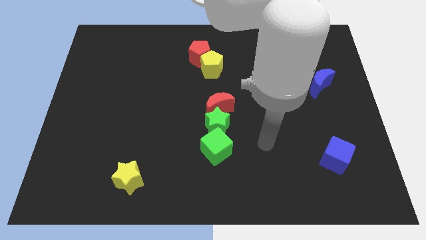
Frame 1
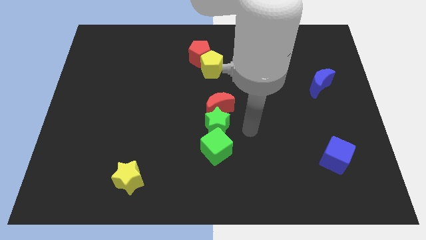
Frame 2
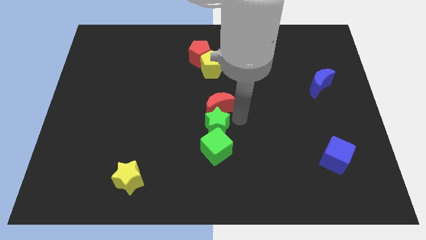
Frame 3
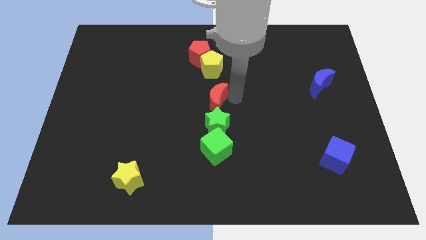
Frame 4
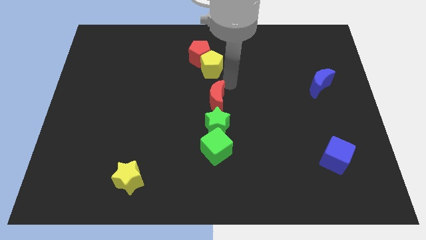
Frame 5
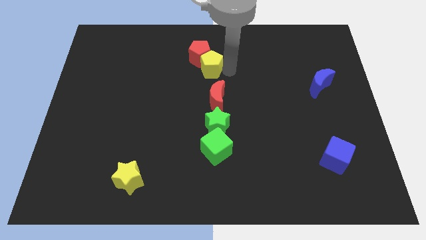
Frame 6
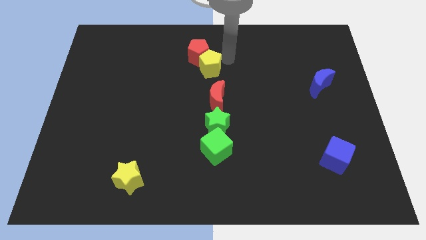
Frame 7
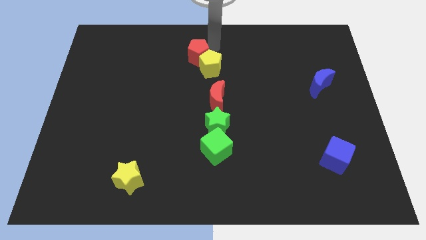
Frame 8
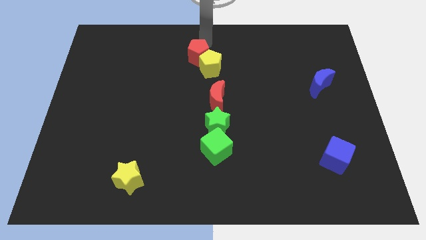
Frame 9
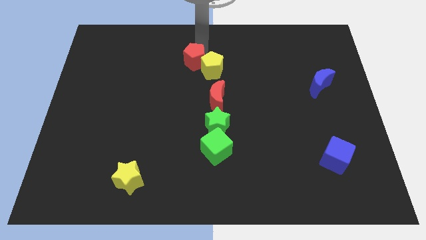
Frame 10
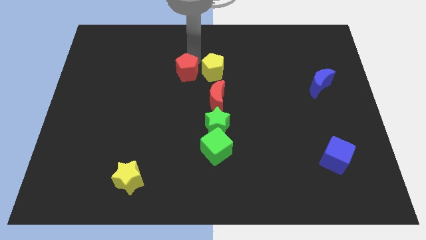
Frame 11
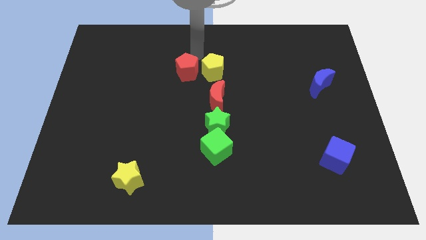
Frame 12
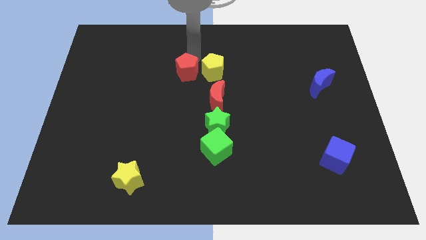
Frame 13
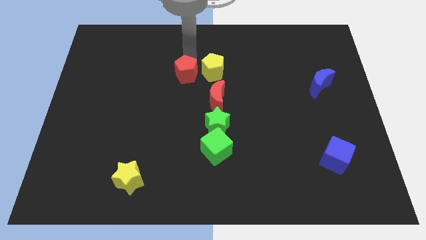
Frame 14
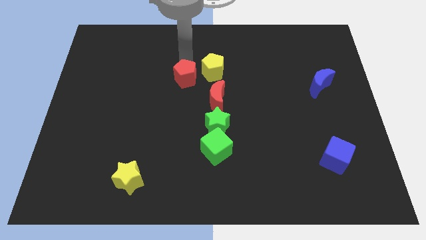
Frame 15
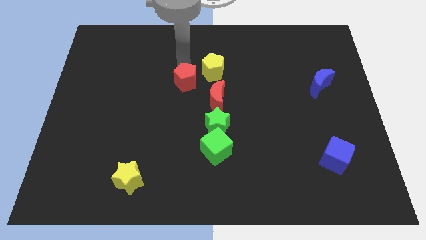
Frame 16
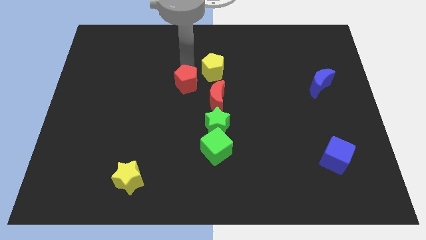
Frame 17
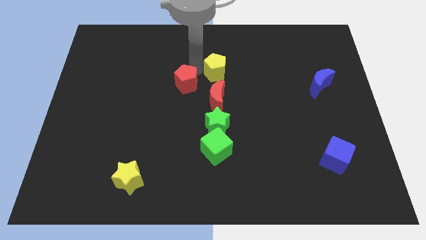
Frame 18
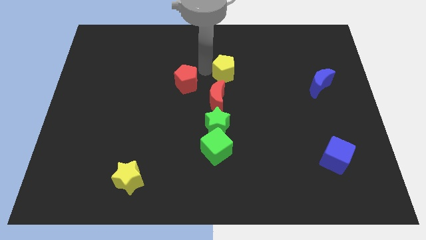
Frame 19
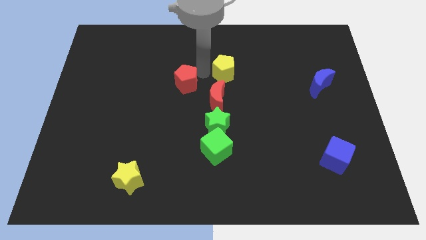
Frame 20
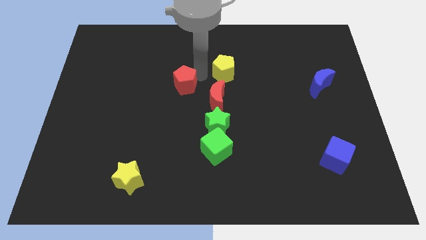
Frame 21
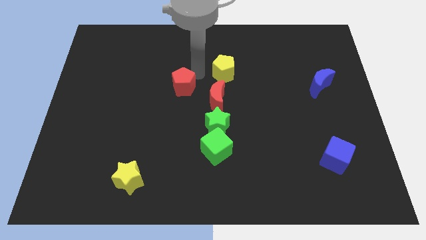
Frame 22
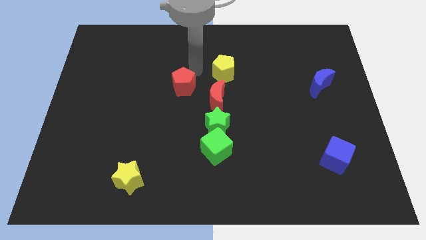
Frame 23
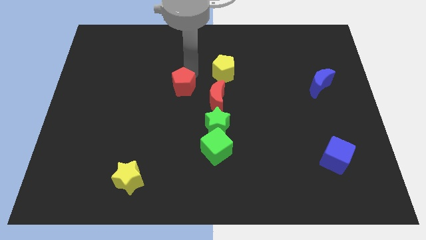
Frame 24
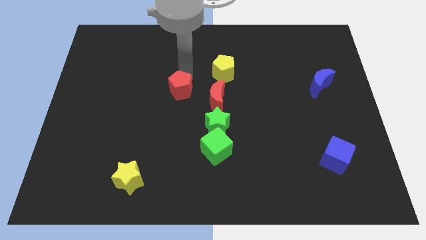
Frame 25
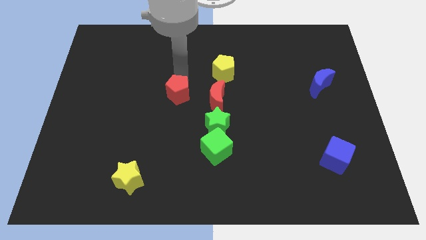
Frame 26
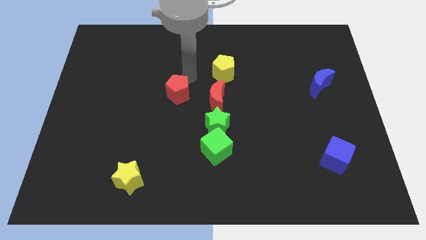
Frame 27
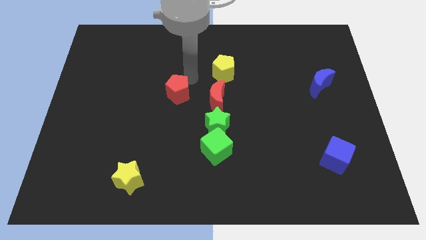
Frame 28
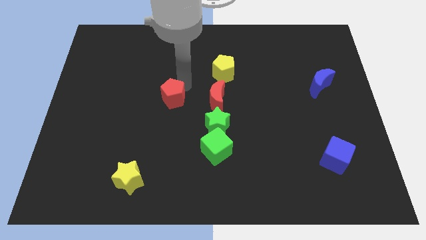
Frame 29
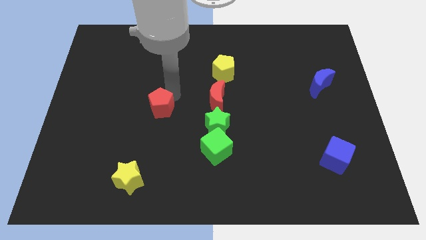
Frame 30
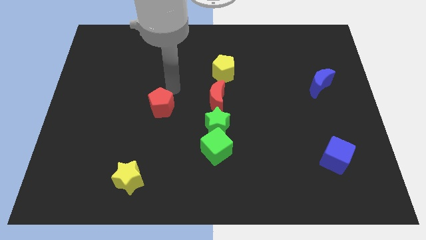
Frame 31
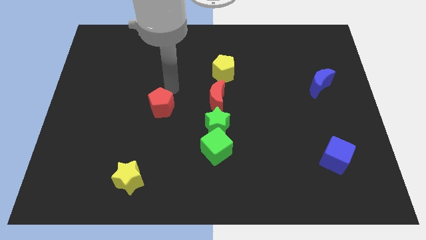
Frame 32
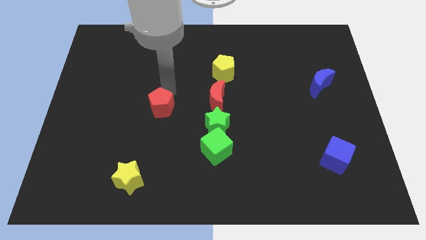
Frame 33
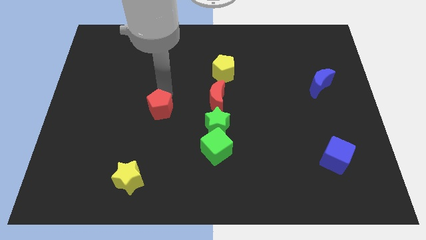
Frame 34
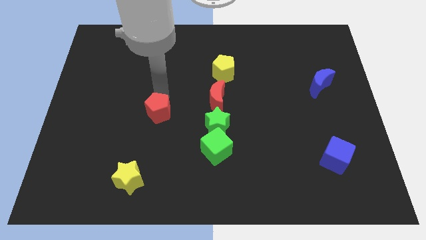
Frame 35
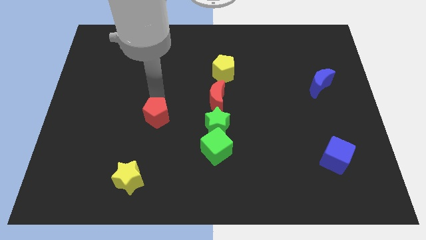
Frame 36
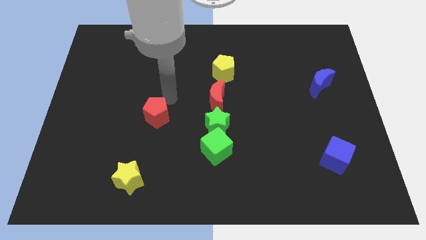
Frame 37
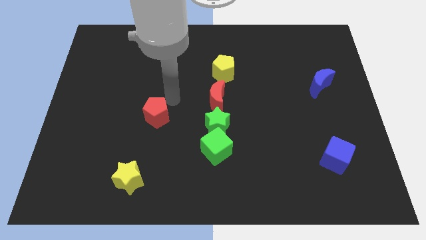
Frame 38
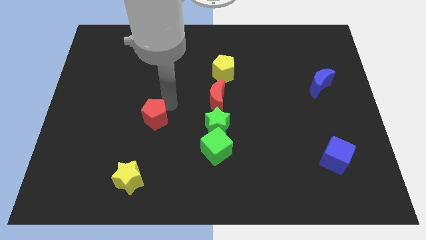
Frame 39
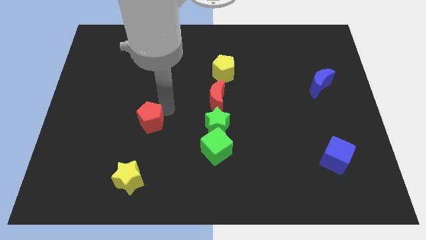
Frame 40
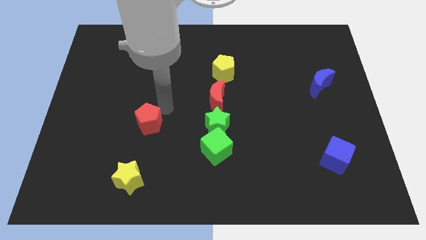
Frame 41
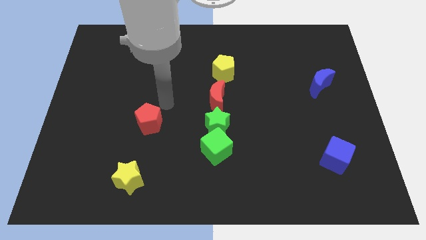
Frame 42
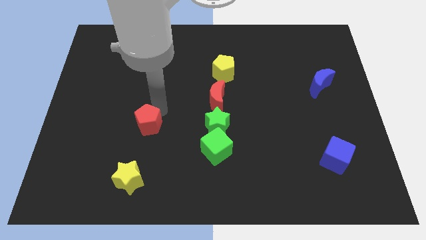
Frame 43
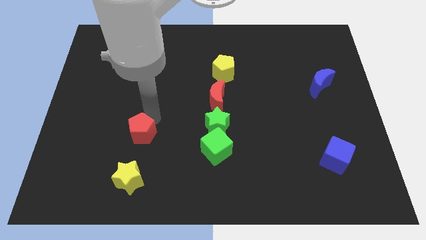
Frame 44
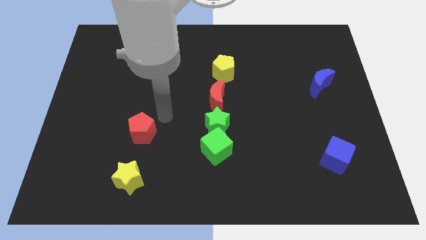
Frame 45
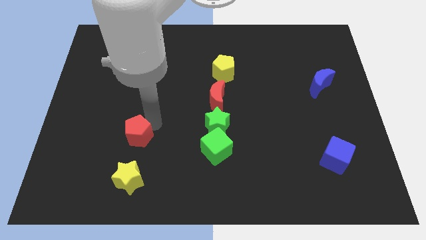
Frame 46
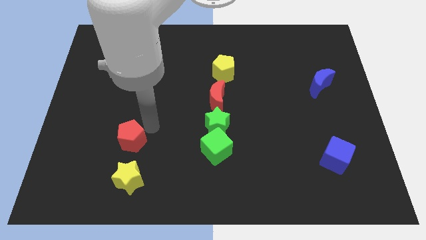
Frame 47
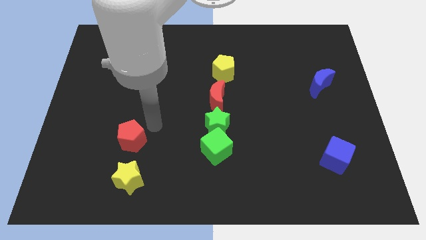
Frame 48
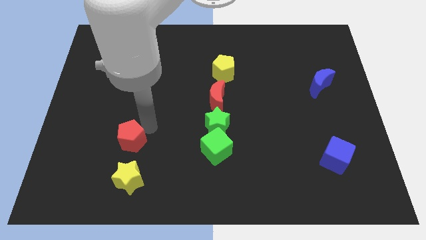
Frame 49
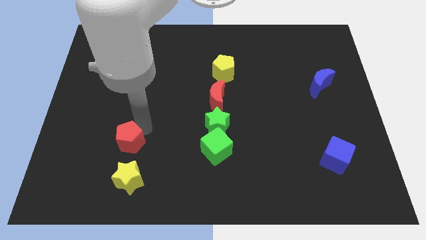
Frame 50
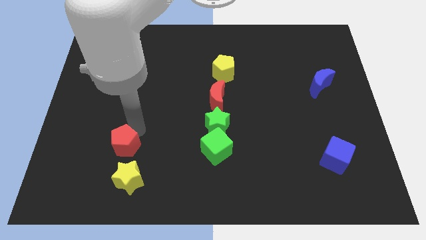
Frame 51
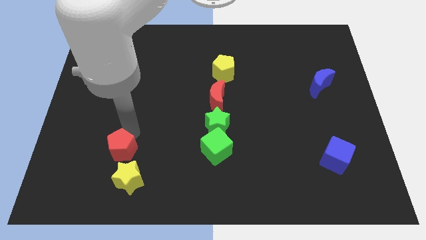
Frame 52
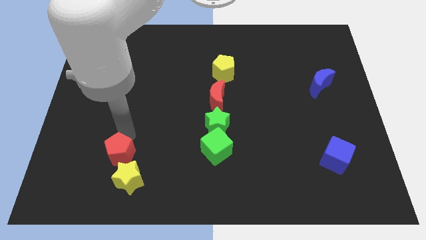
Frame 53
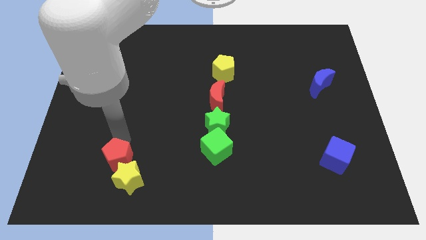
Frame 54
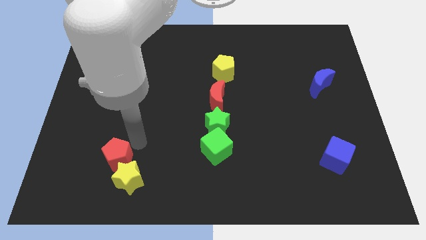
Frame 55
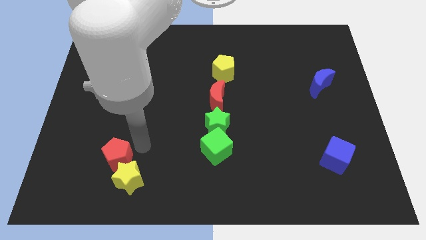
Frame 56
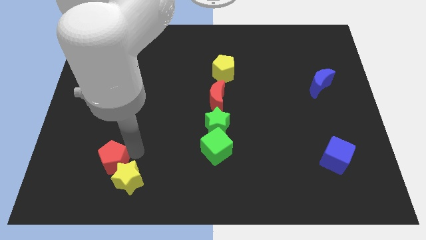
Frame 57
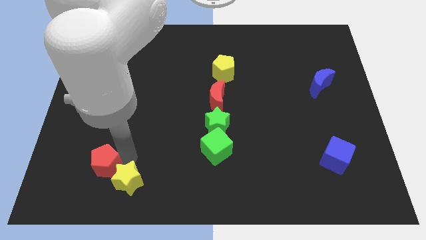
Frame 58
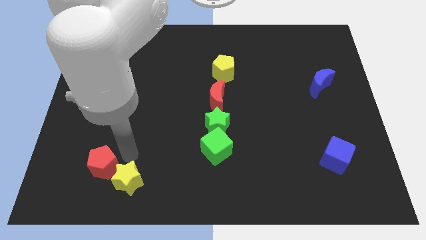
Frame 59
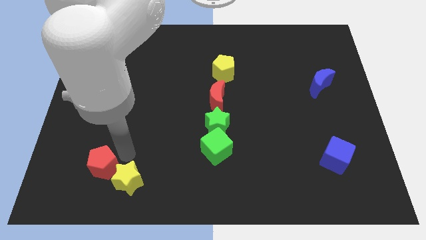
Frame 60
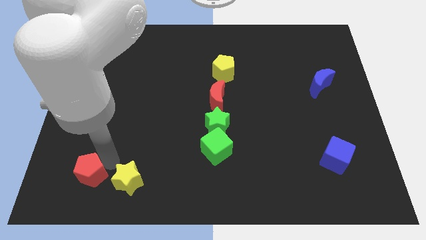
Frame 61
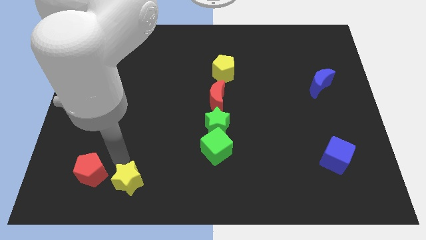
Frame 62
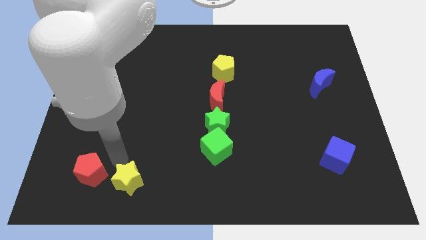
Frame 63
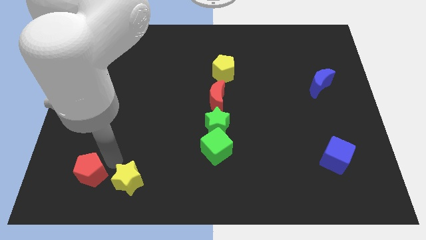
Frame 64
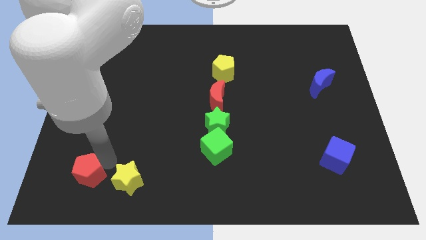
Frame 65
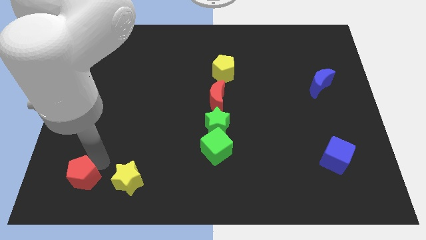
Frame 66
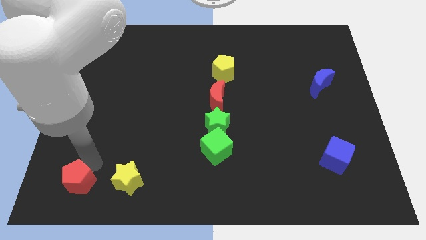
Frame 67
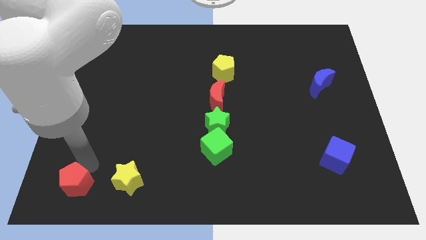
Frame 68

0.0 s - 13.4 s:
move the red pentagon to the bottom left
